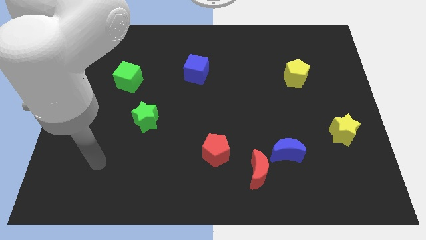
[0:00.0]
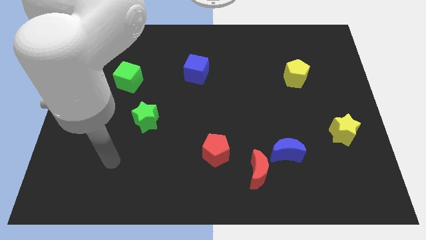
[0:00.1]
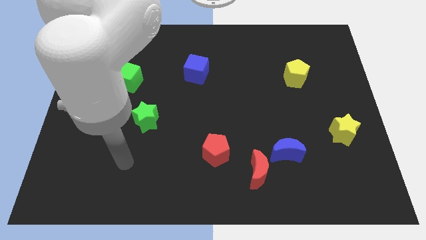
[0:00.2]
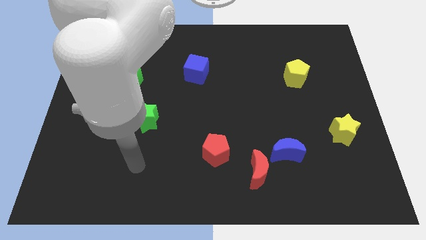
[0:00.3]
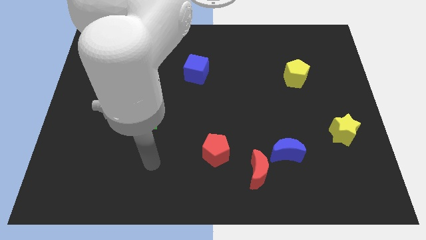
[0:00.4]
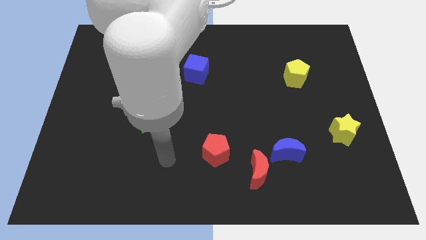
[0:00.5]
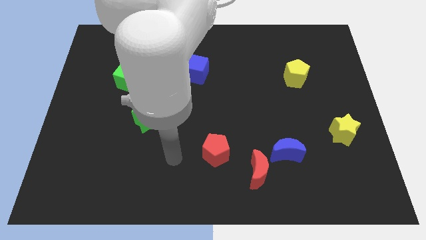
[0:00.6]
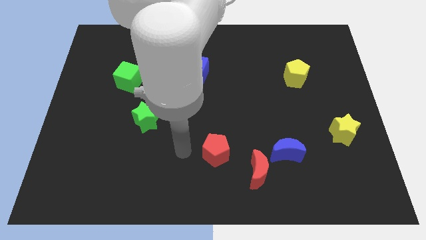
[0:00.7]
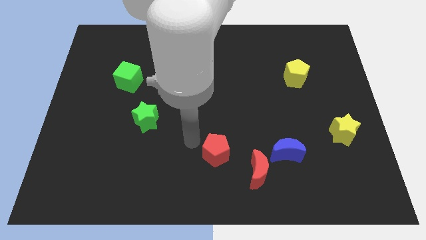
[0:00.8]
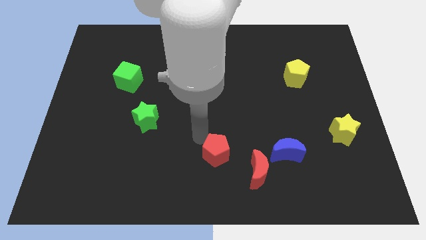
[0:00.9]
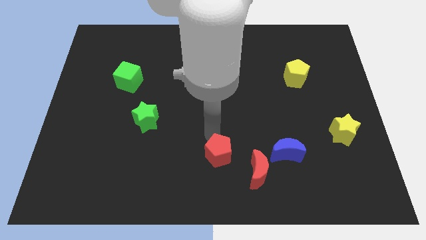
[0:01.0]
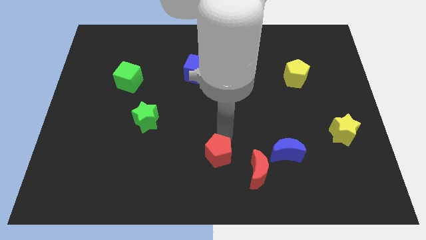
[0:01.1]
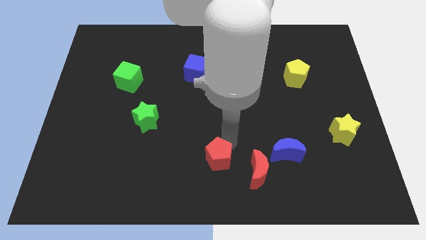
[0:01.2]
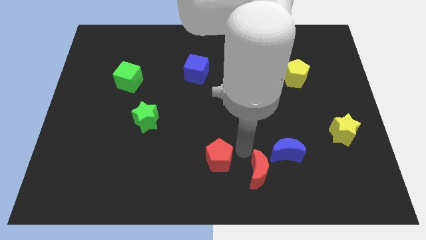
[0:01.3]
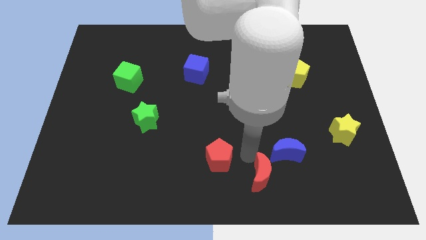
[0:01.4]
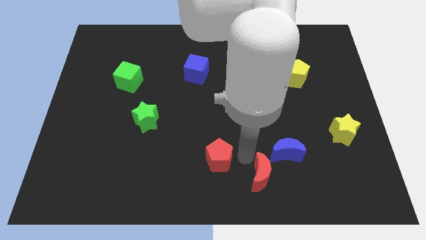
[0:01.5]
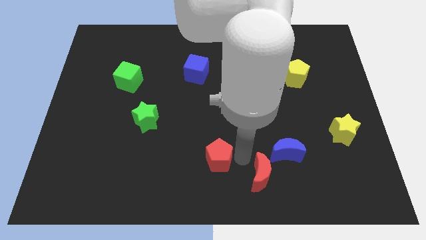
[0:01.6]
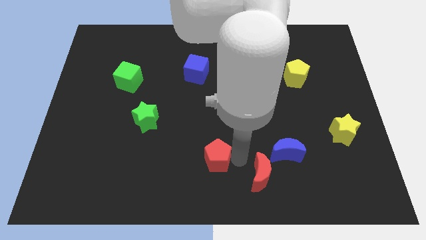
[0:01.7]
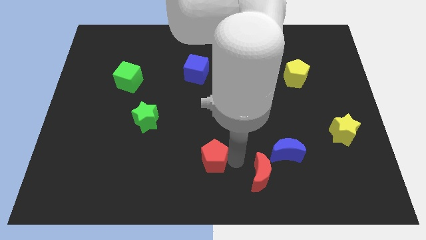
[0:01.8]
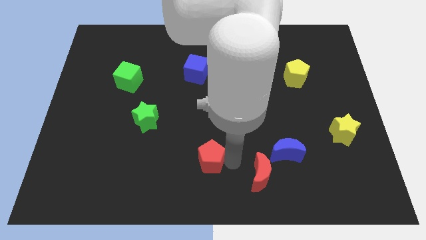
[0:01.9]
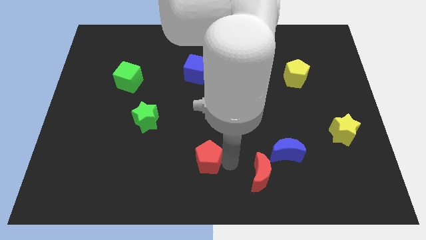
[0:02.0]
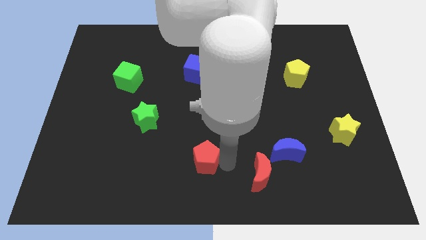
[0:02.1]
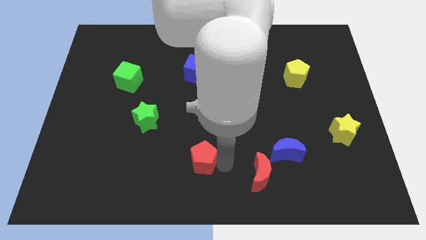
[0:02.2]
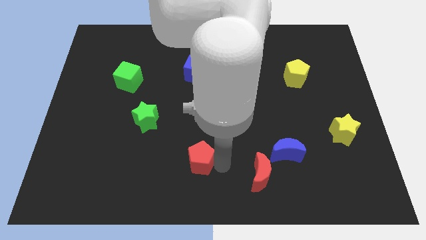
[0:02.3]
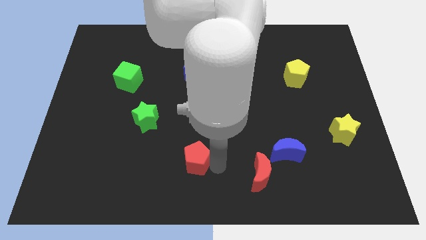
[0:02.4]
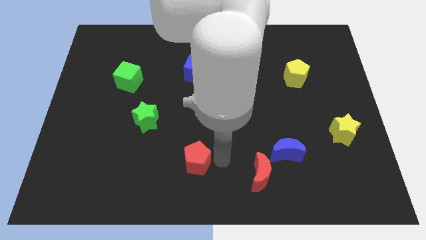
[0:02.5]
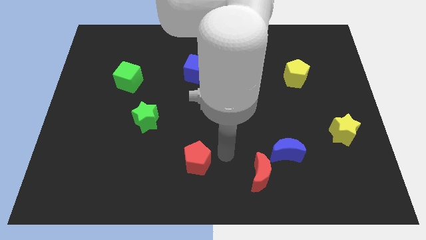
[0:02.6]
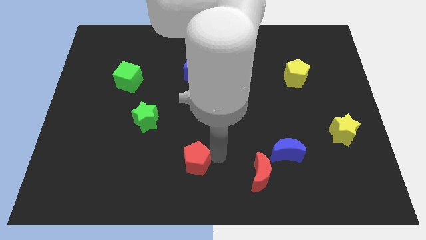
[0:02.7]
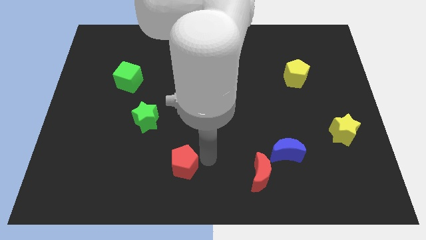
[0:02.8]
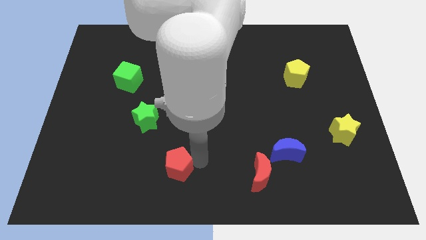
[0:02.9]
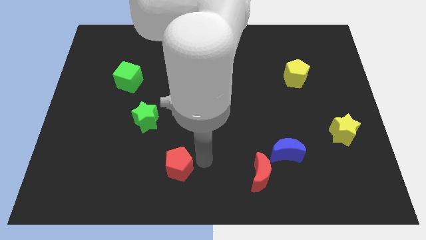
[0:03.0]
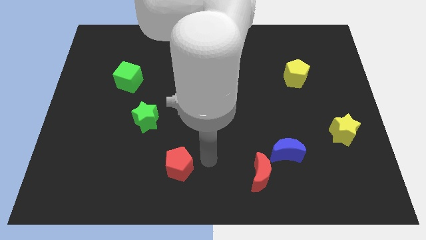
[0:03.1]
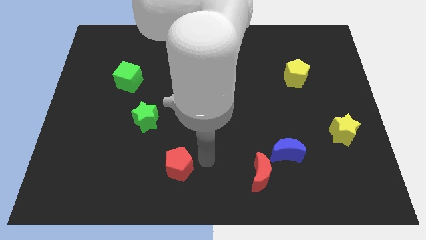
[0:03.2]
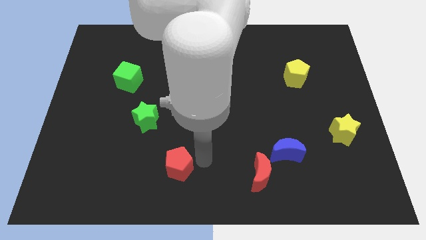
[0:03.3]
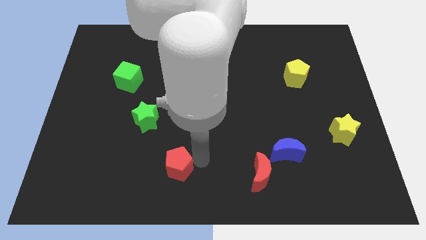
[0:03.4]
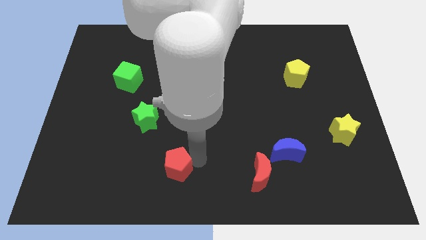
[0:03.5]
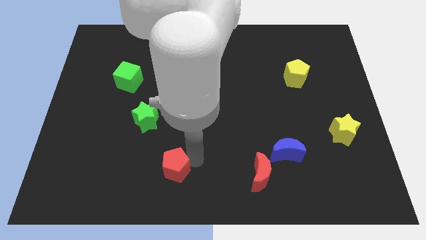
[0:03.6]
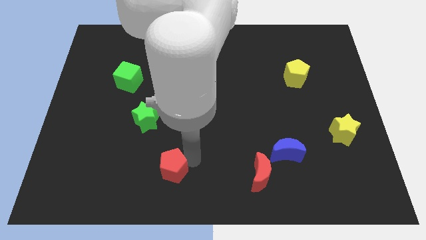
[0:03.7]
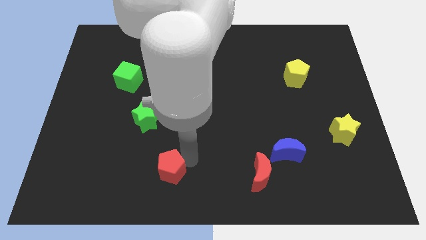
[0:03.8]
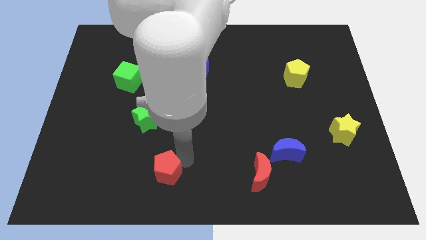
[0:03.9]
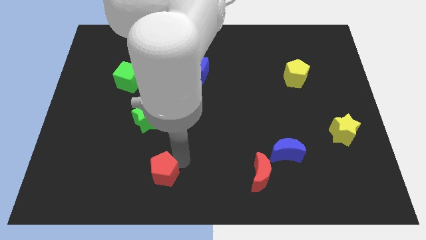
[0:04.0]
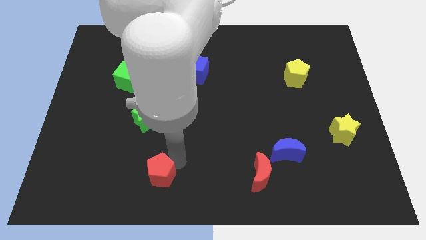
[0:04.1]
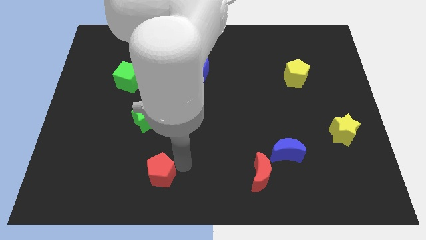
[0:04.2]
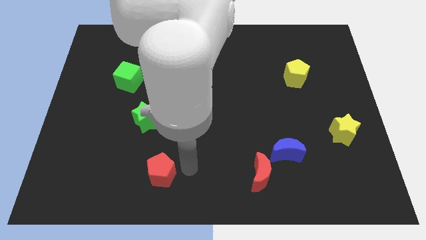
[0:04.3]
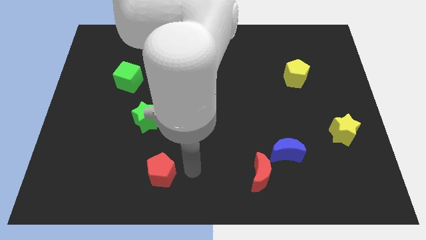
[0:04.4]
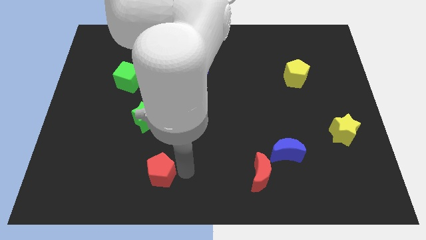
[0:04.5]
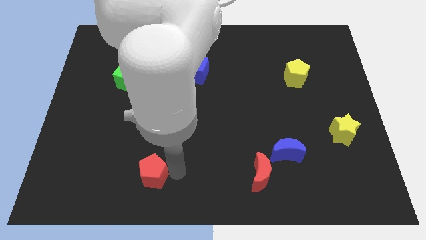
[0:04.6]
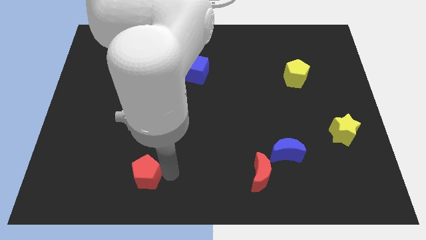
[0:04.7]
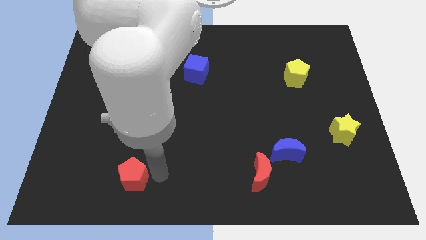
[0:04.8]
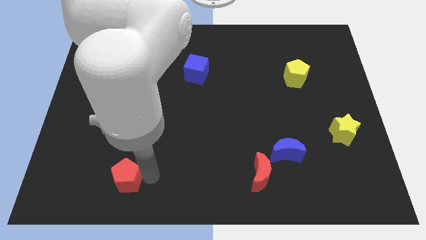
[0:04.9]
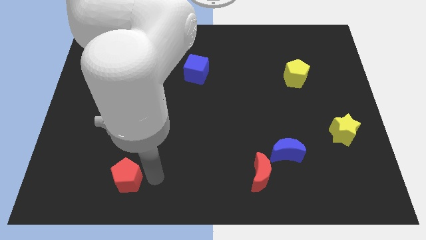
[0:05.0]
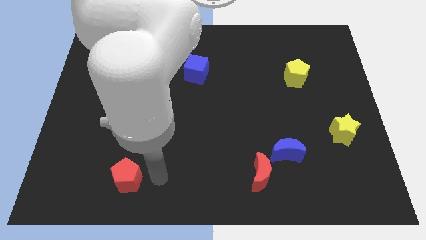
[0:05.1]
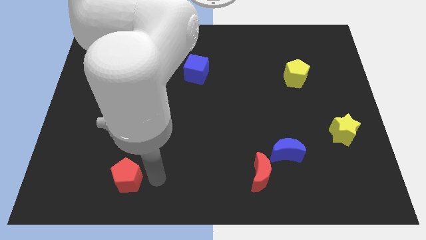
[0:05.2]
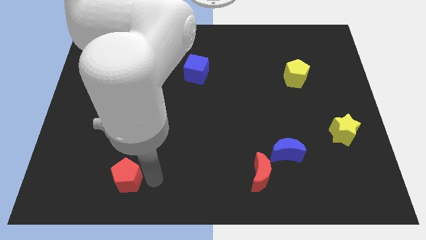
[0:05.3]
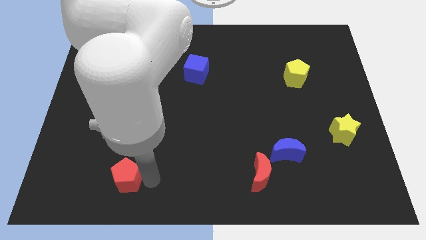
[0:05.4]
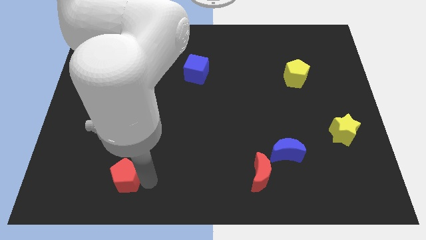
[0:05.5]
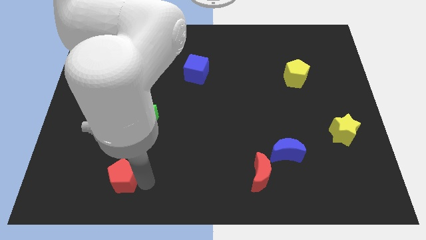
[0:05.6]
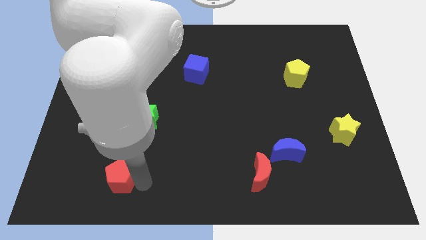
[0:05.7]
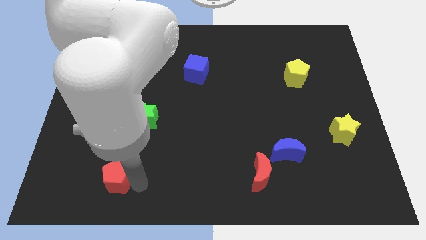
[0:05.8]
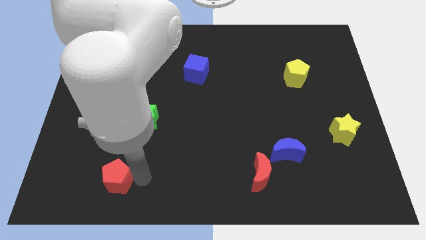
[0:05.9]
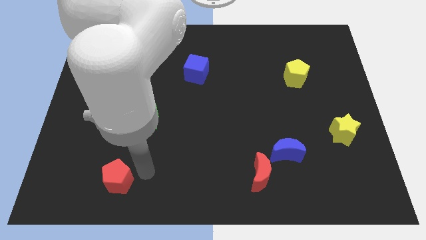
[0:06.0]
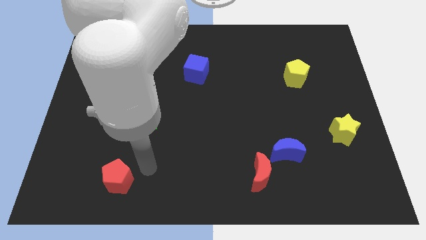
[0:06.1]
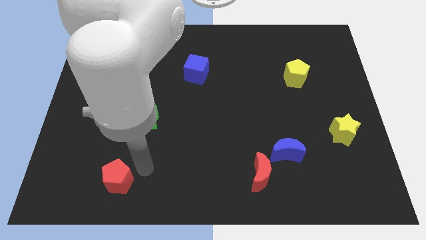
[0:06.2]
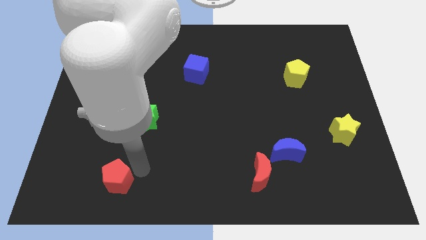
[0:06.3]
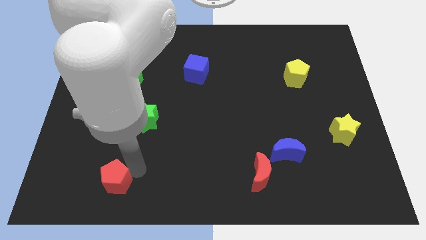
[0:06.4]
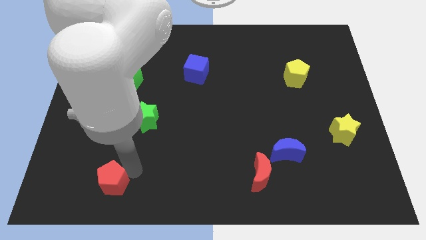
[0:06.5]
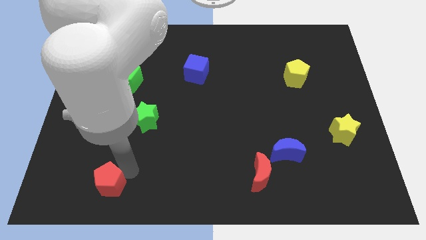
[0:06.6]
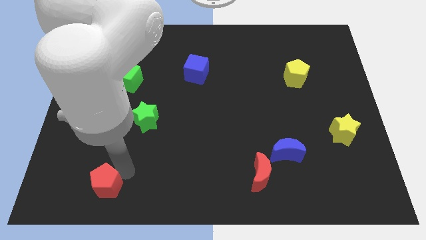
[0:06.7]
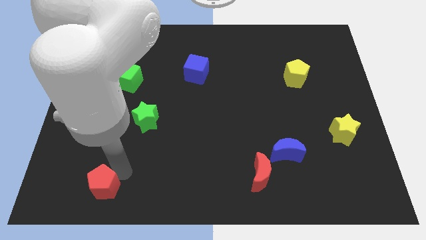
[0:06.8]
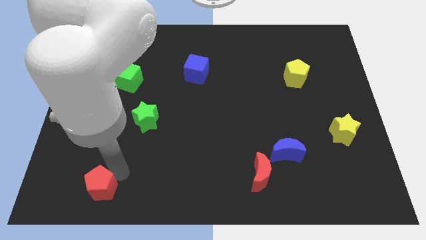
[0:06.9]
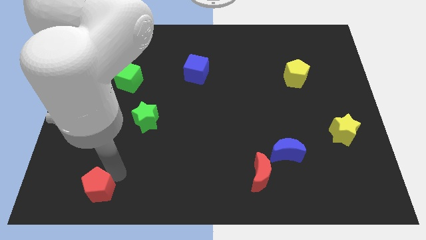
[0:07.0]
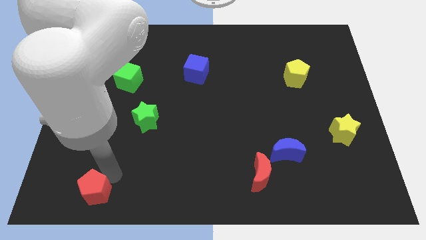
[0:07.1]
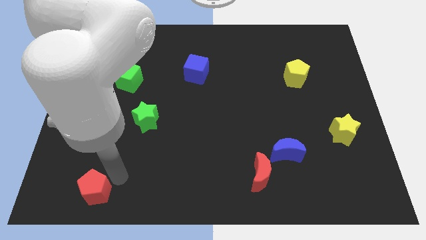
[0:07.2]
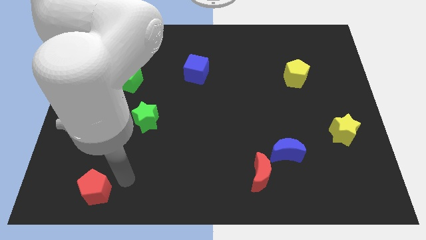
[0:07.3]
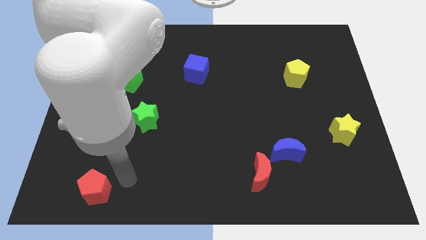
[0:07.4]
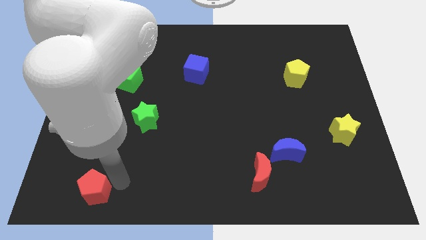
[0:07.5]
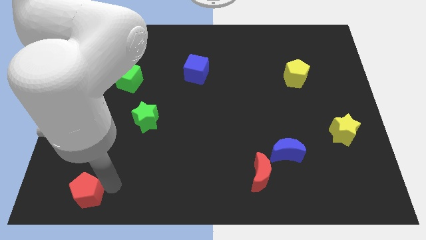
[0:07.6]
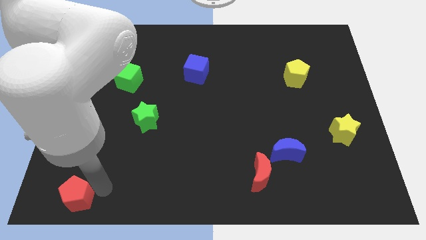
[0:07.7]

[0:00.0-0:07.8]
move the red pentagon to the bottom left
